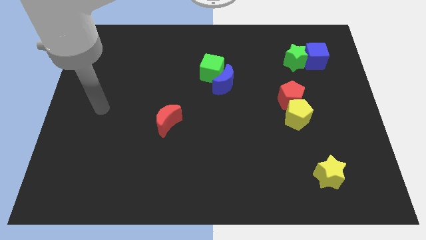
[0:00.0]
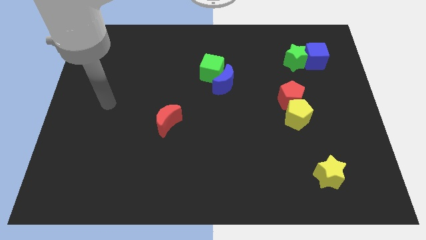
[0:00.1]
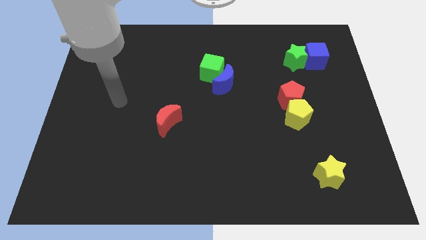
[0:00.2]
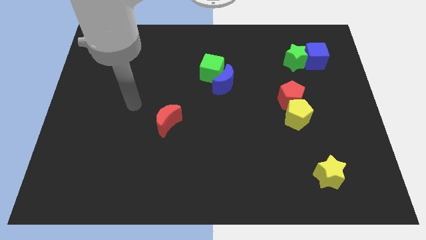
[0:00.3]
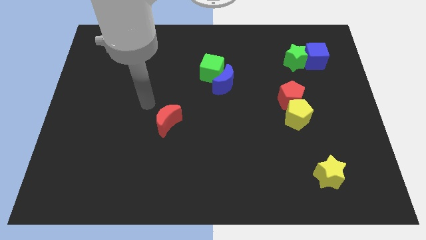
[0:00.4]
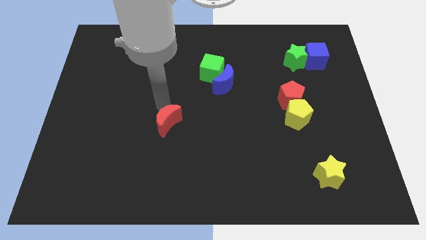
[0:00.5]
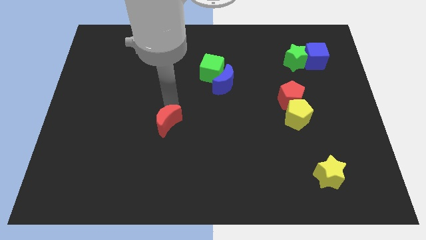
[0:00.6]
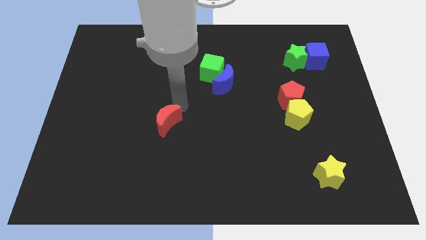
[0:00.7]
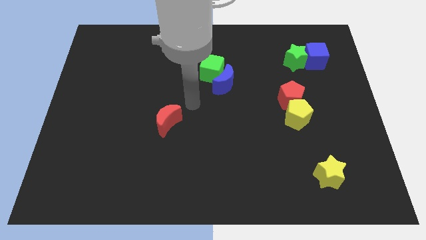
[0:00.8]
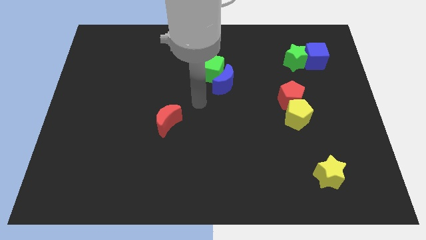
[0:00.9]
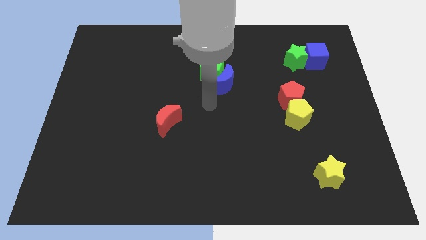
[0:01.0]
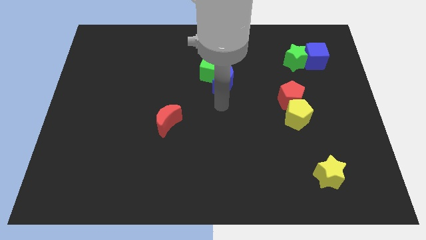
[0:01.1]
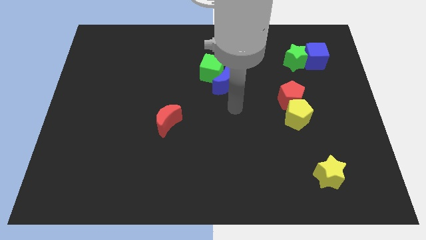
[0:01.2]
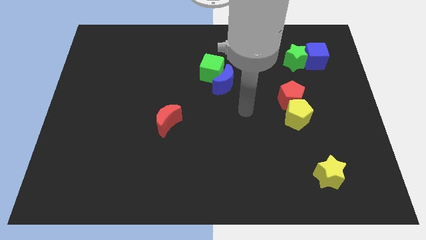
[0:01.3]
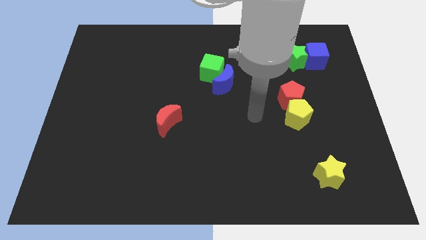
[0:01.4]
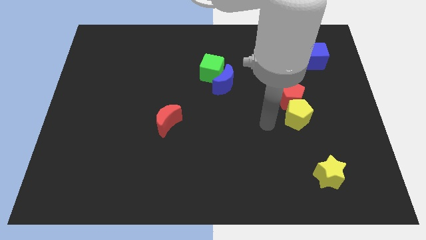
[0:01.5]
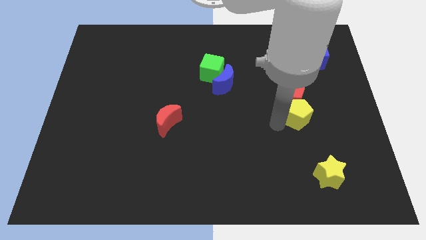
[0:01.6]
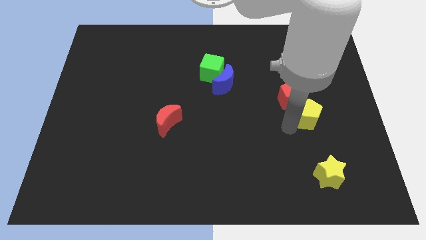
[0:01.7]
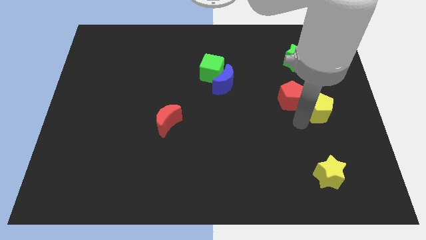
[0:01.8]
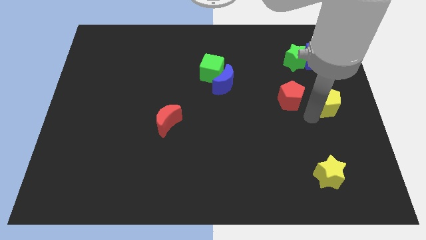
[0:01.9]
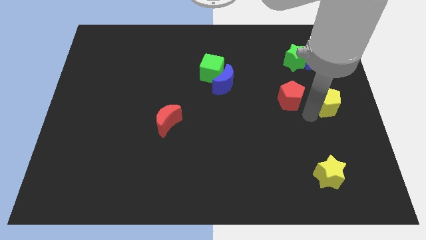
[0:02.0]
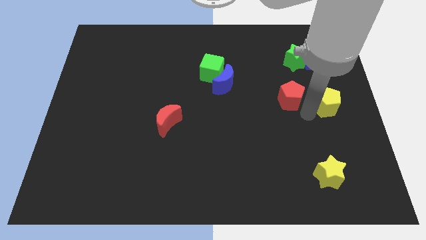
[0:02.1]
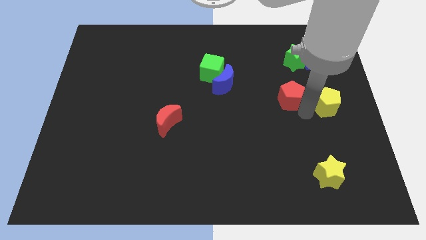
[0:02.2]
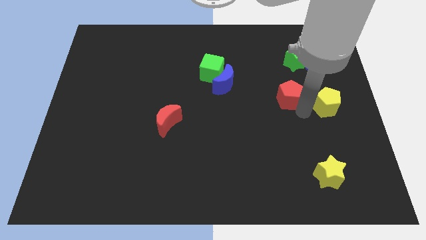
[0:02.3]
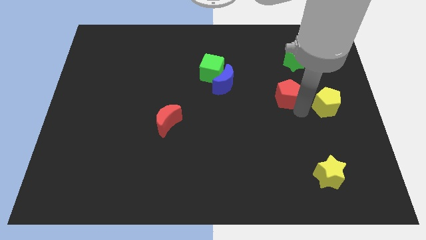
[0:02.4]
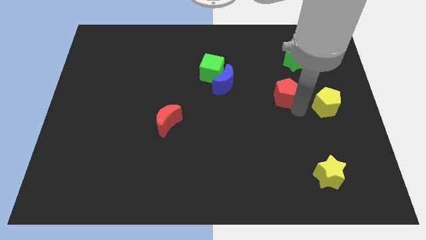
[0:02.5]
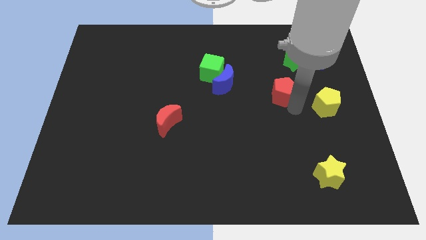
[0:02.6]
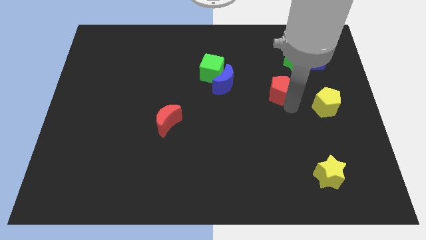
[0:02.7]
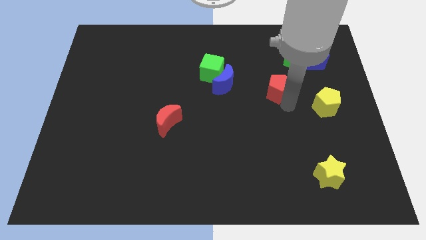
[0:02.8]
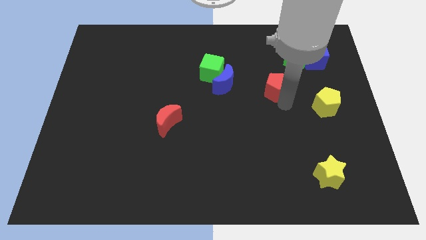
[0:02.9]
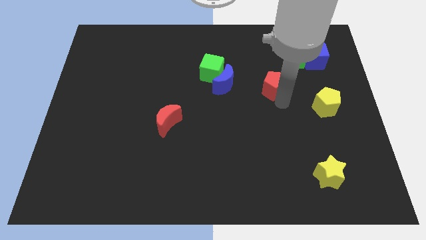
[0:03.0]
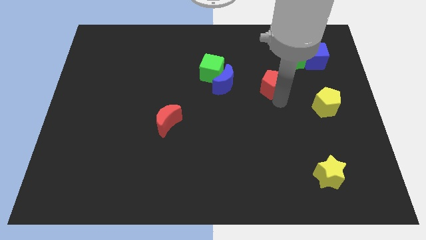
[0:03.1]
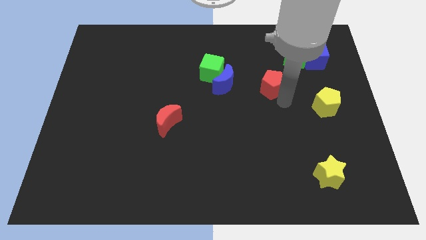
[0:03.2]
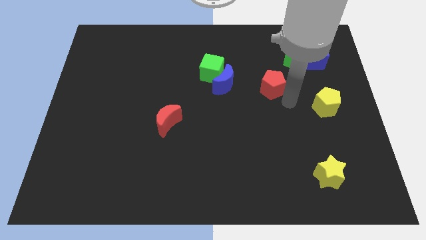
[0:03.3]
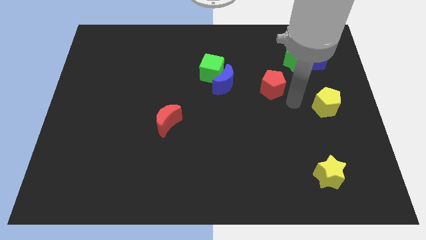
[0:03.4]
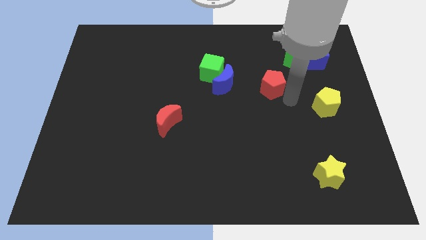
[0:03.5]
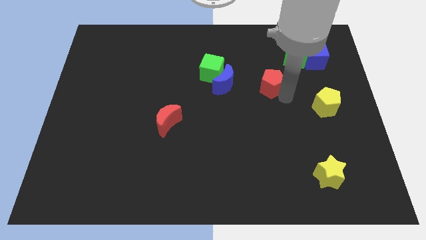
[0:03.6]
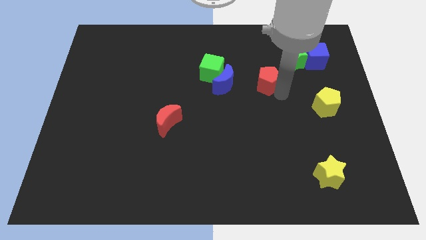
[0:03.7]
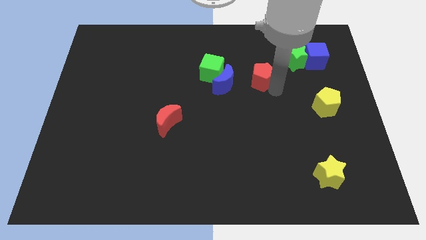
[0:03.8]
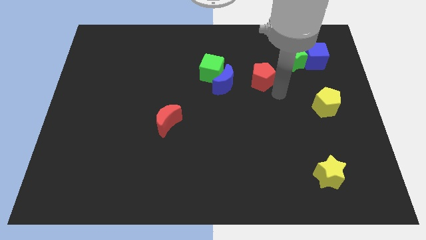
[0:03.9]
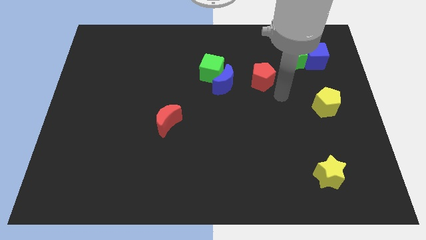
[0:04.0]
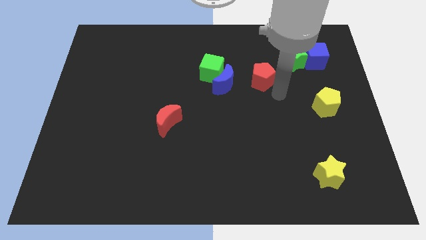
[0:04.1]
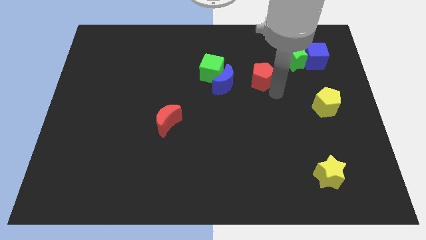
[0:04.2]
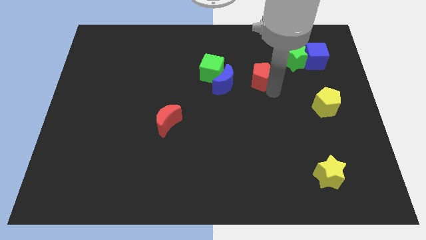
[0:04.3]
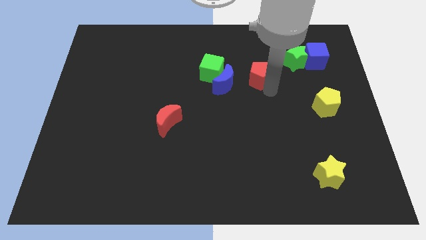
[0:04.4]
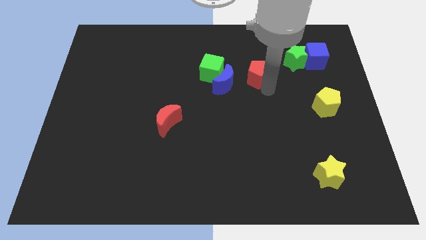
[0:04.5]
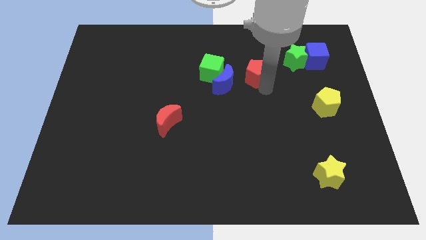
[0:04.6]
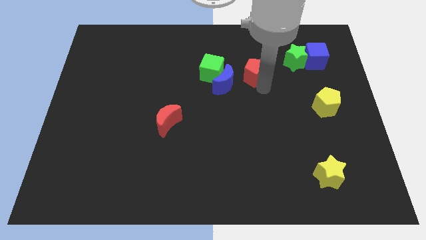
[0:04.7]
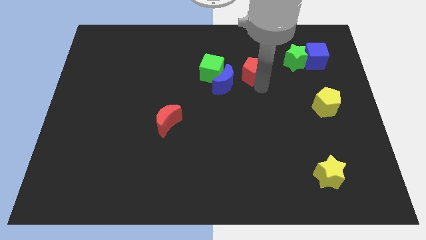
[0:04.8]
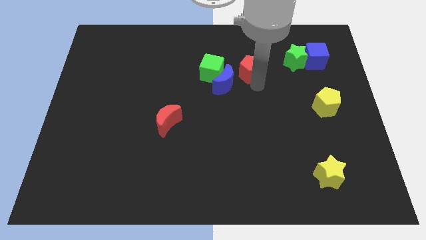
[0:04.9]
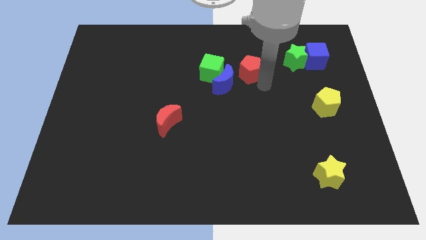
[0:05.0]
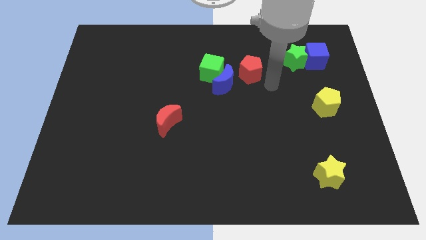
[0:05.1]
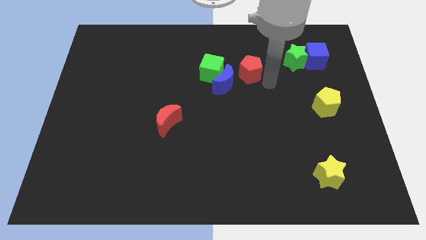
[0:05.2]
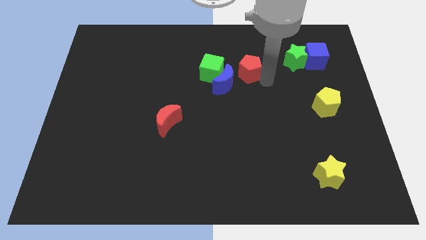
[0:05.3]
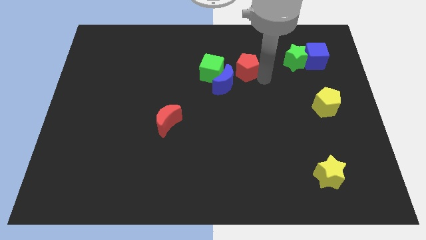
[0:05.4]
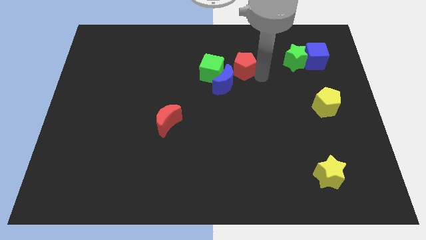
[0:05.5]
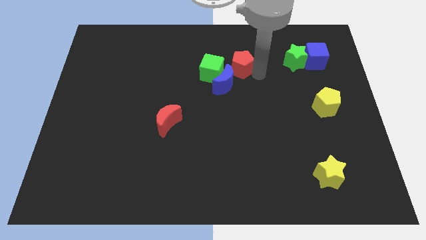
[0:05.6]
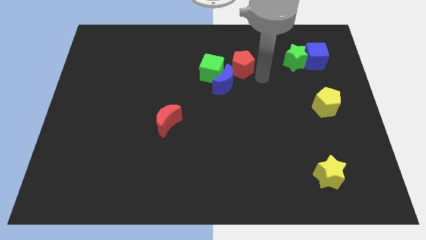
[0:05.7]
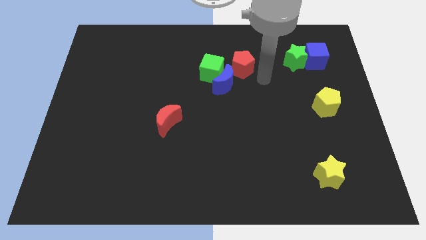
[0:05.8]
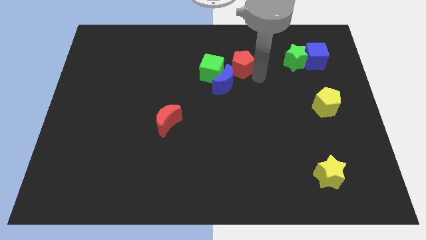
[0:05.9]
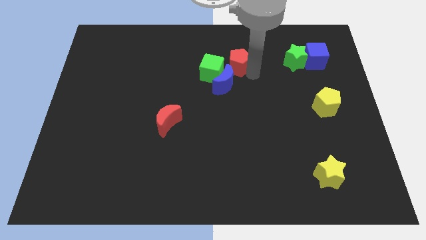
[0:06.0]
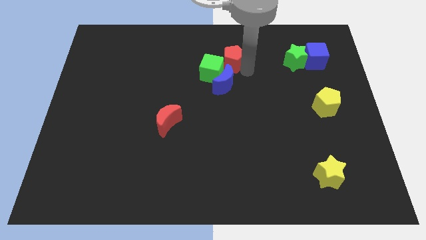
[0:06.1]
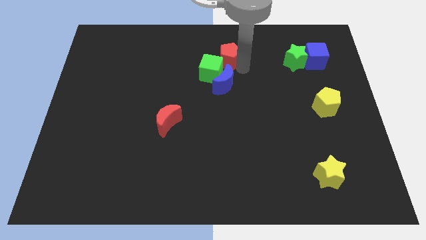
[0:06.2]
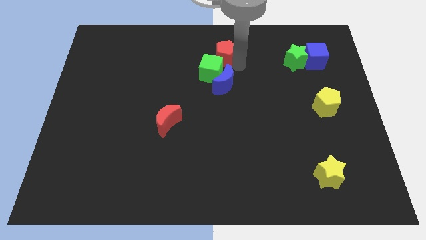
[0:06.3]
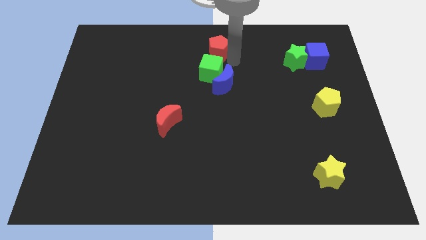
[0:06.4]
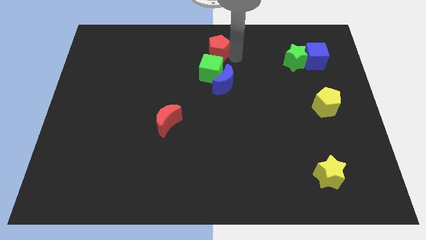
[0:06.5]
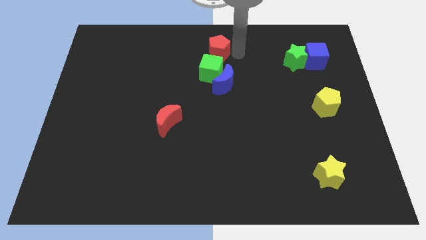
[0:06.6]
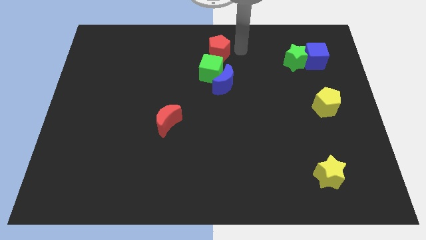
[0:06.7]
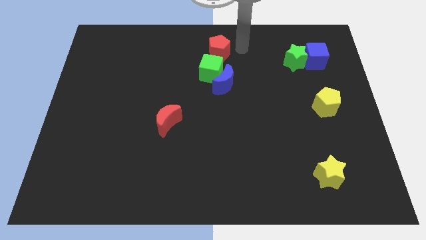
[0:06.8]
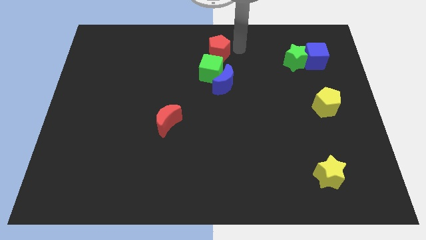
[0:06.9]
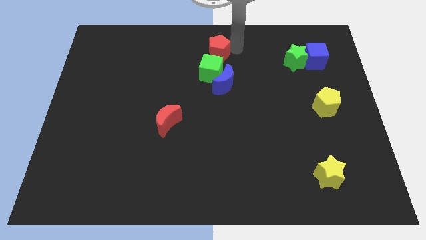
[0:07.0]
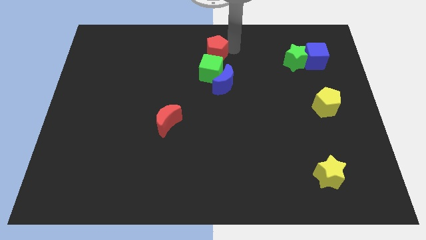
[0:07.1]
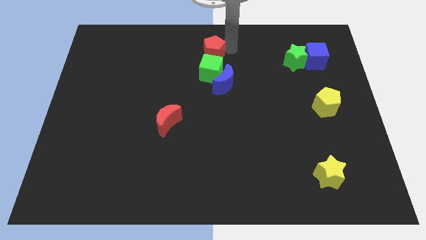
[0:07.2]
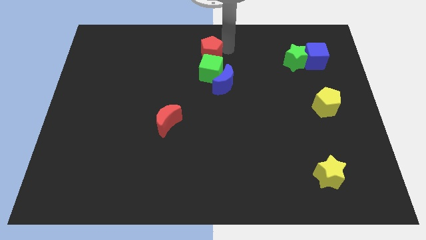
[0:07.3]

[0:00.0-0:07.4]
put the red pentagon diagonally up and to the left of the green cube
